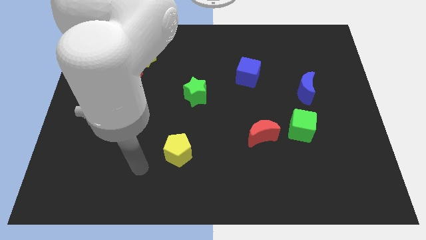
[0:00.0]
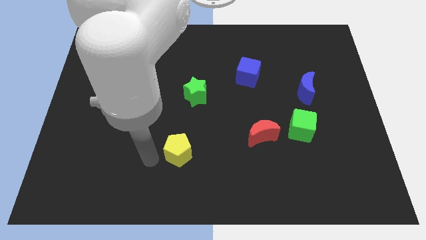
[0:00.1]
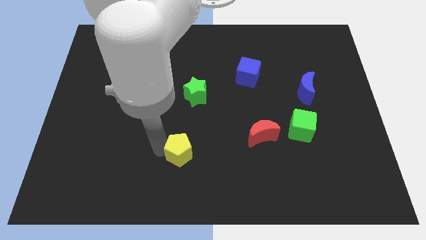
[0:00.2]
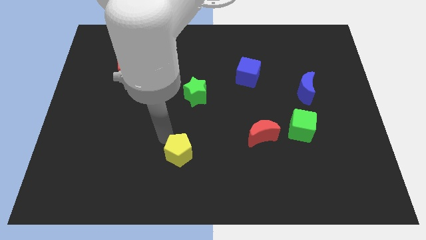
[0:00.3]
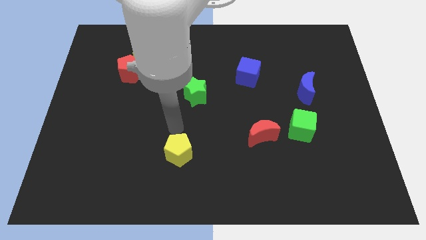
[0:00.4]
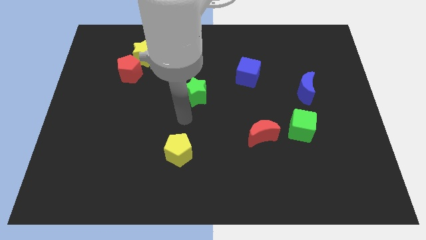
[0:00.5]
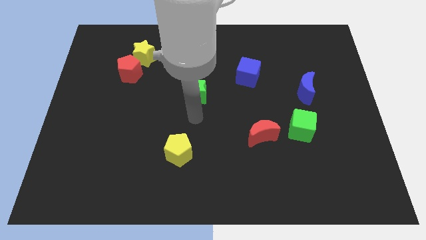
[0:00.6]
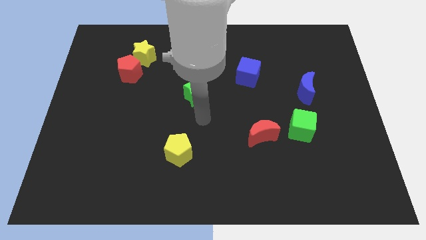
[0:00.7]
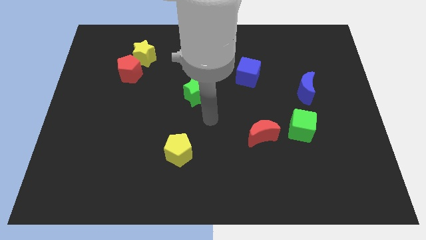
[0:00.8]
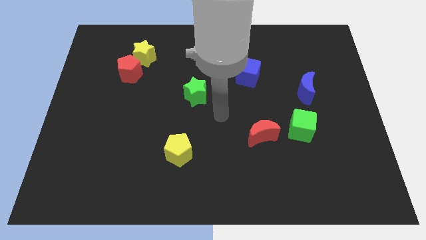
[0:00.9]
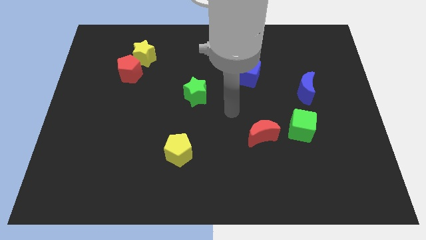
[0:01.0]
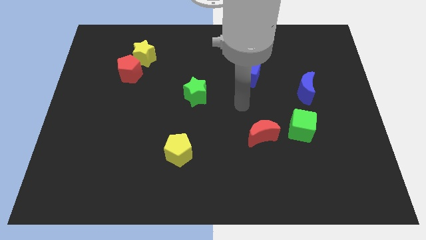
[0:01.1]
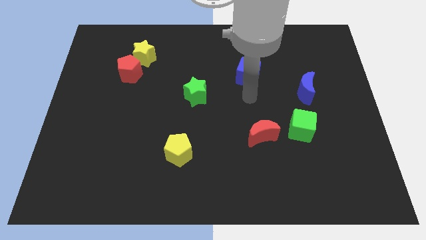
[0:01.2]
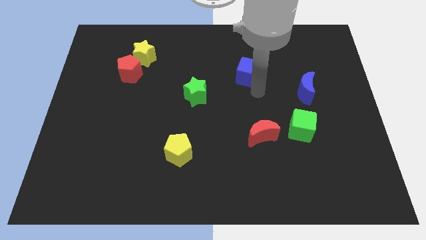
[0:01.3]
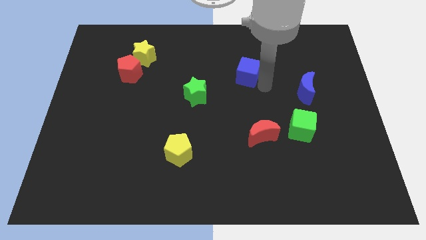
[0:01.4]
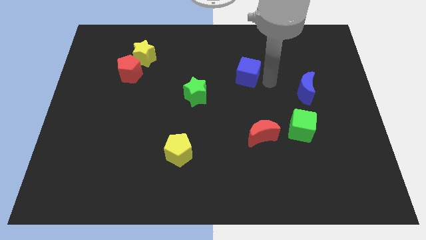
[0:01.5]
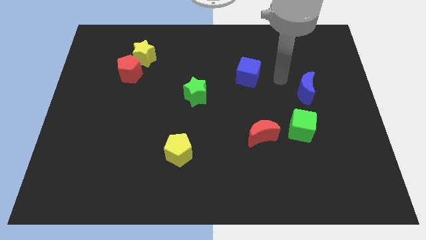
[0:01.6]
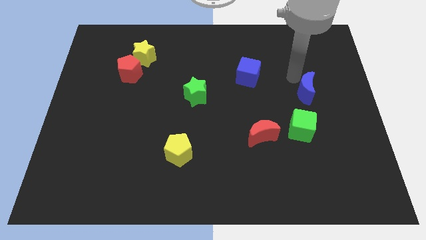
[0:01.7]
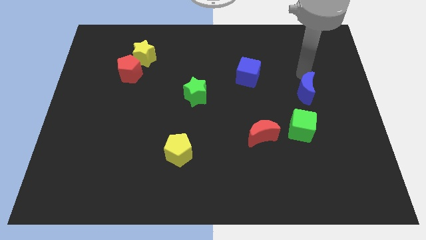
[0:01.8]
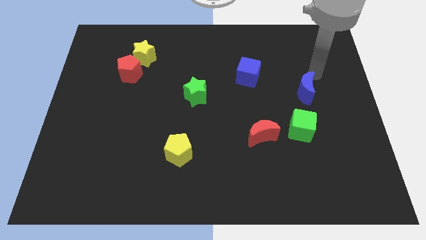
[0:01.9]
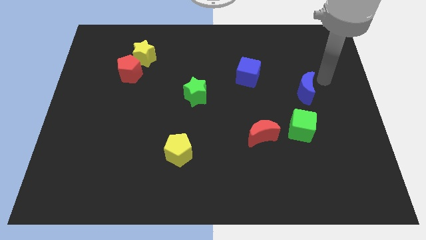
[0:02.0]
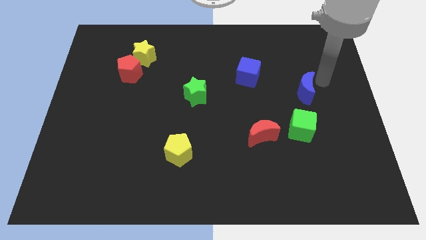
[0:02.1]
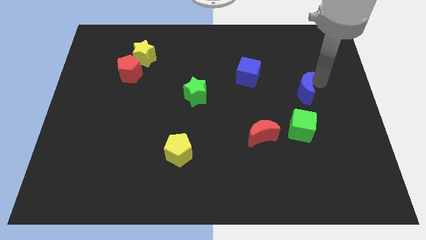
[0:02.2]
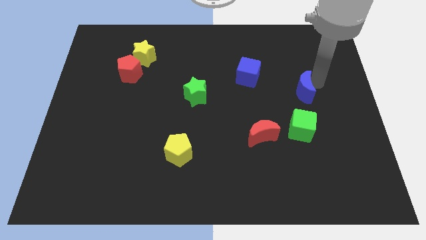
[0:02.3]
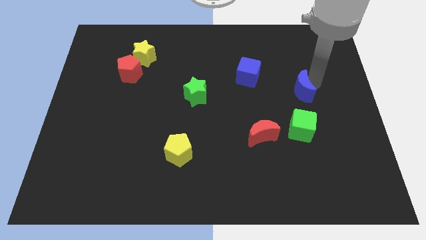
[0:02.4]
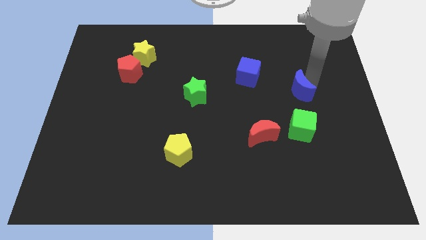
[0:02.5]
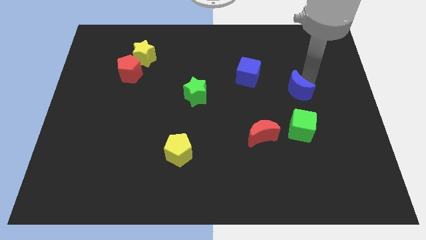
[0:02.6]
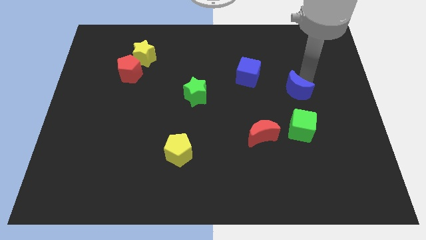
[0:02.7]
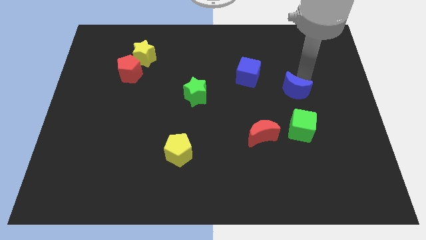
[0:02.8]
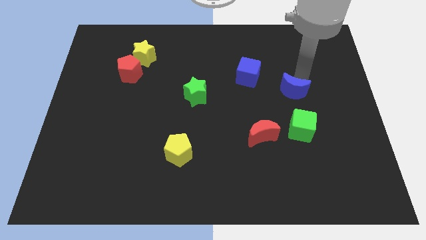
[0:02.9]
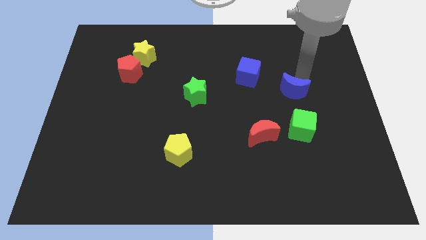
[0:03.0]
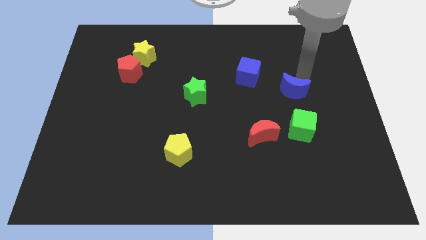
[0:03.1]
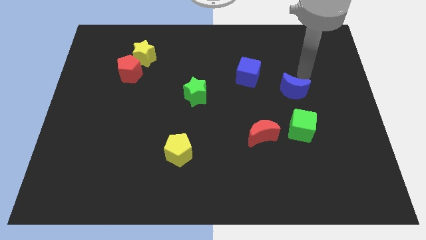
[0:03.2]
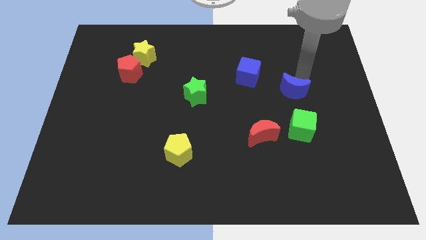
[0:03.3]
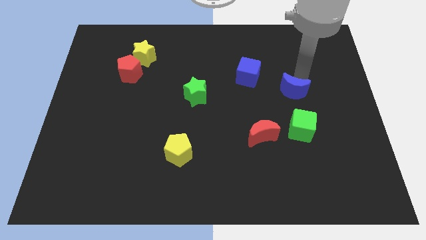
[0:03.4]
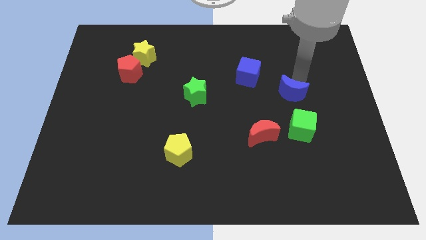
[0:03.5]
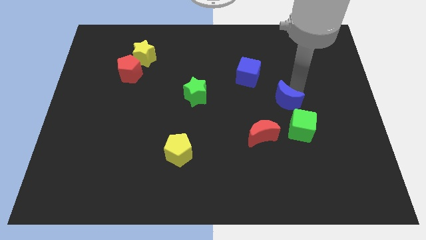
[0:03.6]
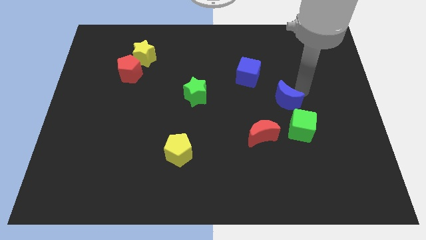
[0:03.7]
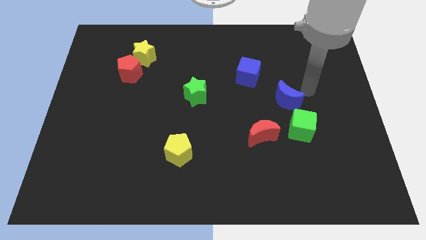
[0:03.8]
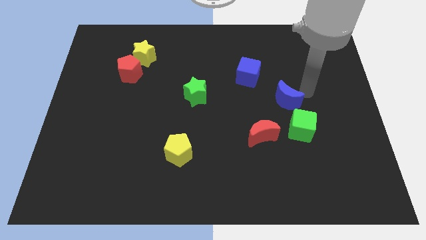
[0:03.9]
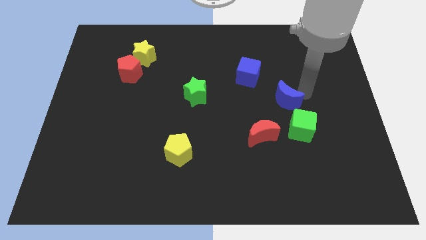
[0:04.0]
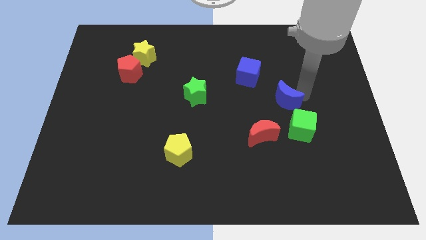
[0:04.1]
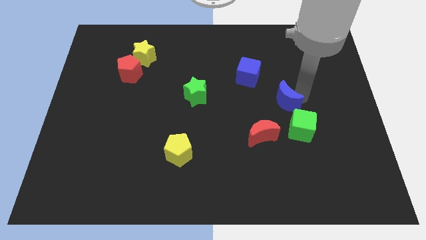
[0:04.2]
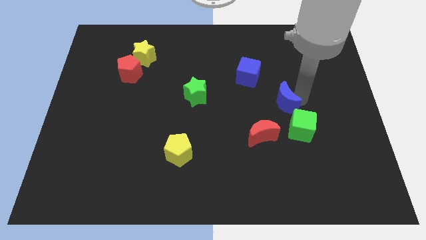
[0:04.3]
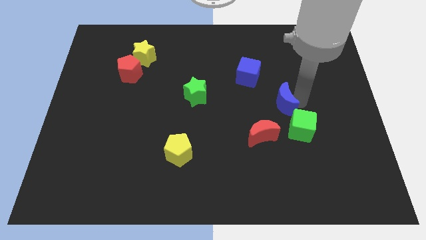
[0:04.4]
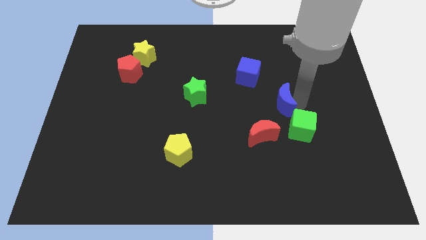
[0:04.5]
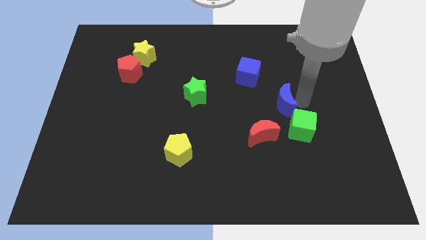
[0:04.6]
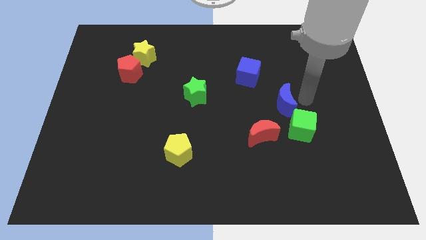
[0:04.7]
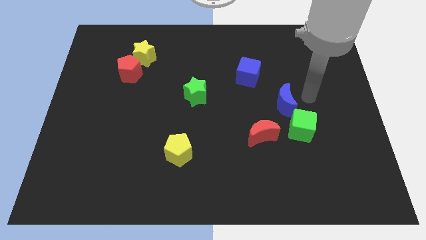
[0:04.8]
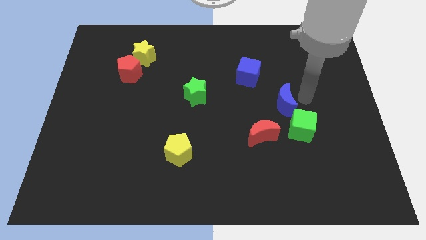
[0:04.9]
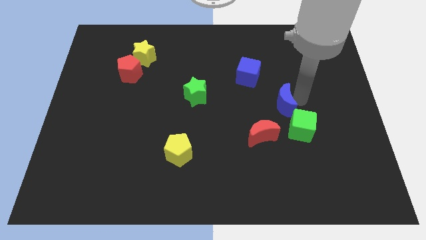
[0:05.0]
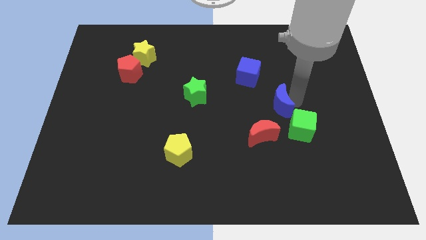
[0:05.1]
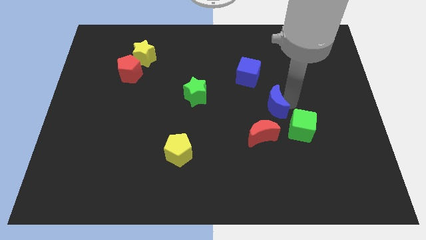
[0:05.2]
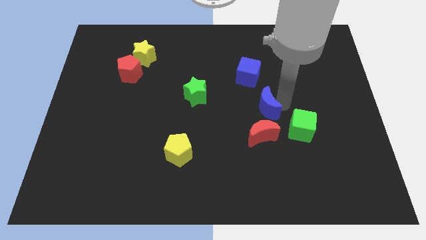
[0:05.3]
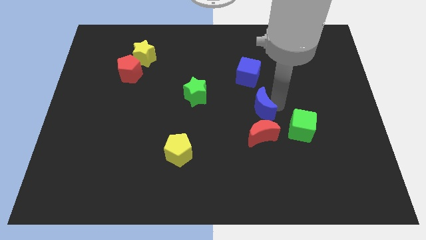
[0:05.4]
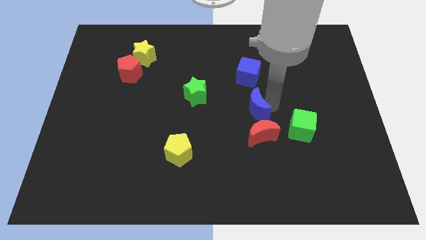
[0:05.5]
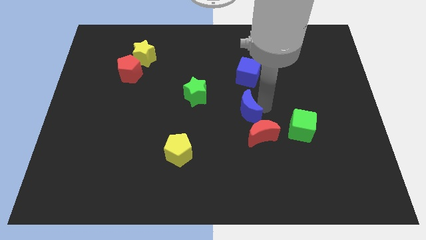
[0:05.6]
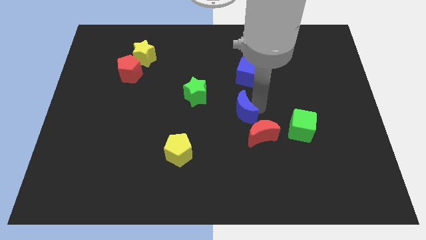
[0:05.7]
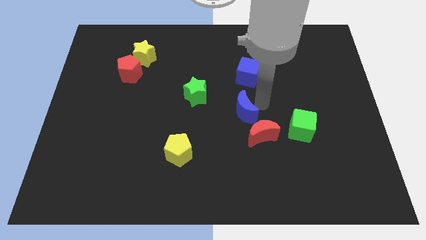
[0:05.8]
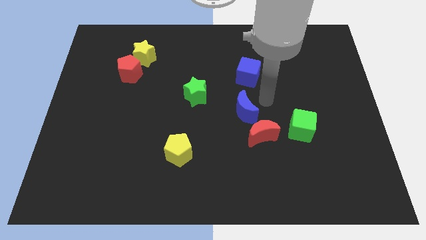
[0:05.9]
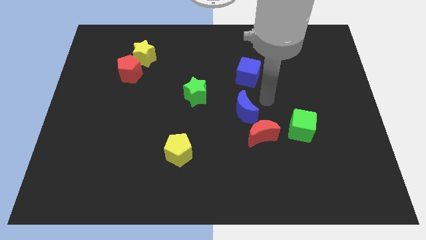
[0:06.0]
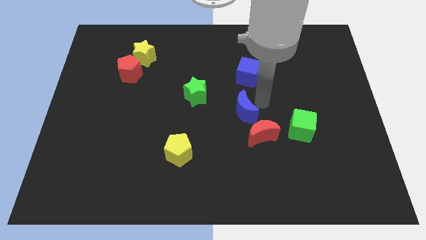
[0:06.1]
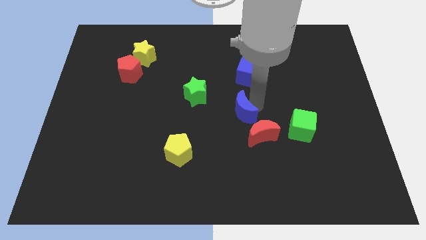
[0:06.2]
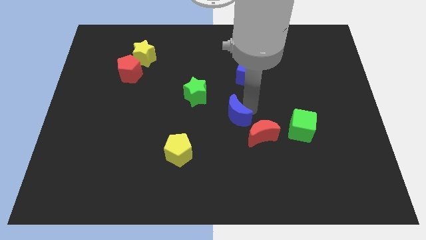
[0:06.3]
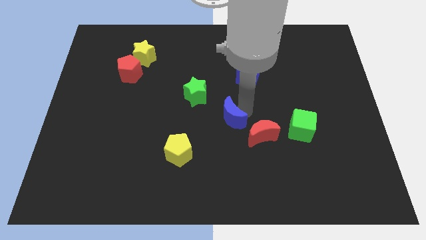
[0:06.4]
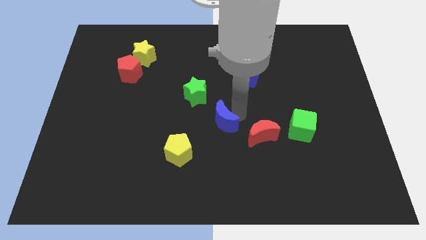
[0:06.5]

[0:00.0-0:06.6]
move the blue moon diagonally up and to the right of the yellow pentagon

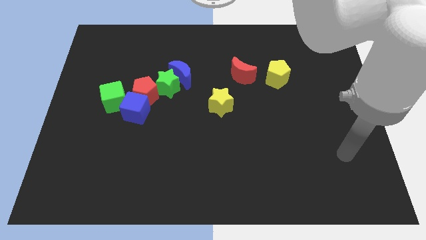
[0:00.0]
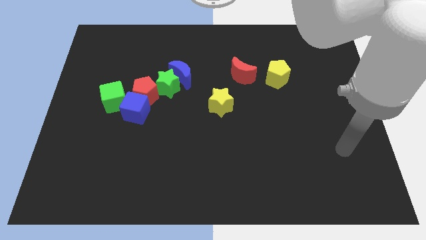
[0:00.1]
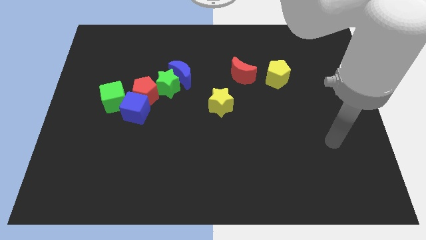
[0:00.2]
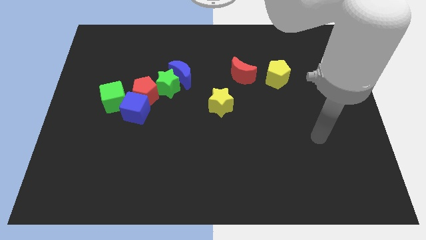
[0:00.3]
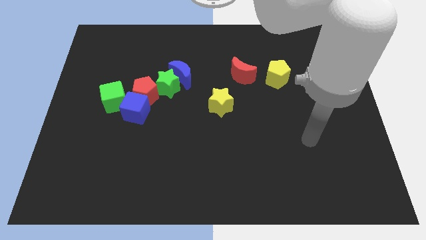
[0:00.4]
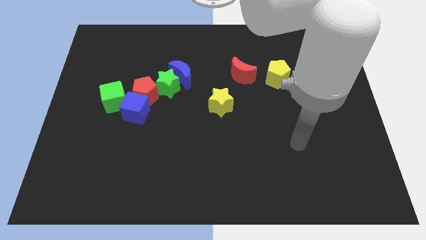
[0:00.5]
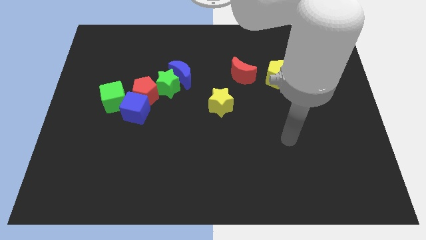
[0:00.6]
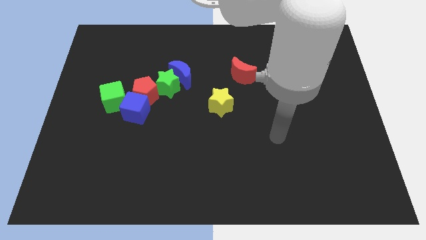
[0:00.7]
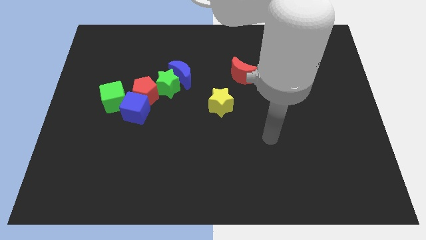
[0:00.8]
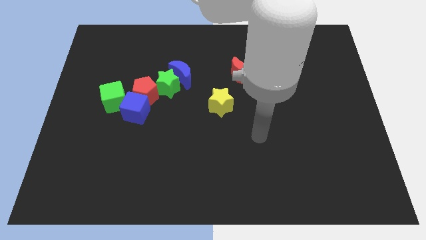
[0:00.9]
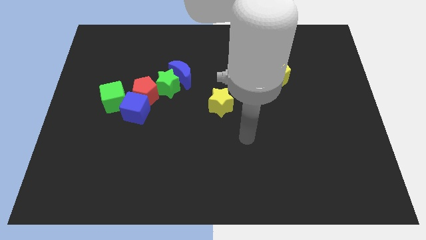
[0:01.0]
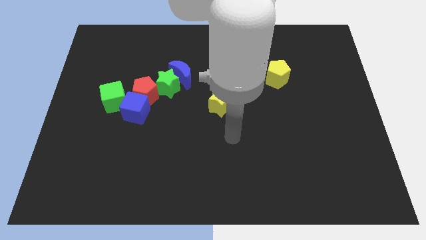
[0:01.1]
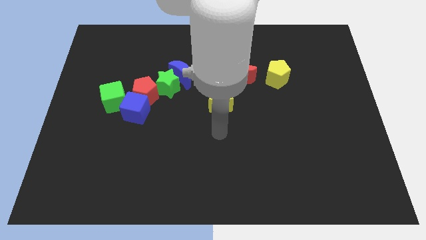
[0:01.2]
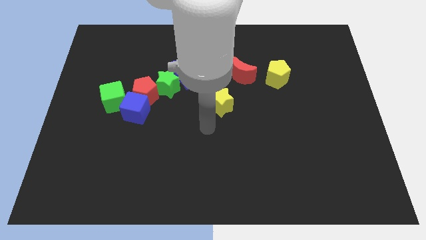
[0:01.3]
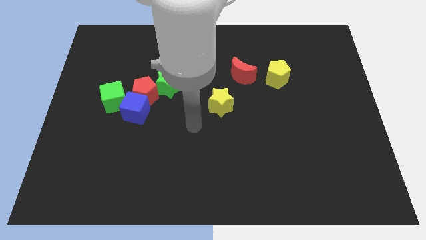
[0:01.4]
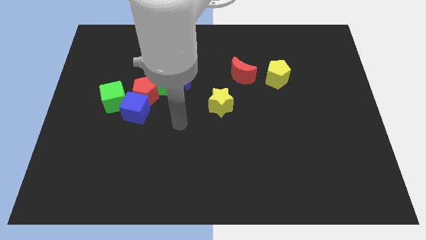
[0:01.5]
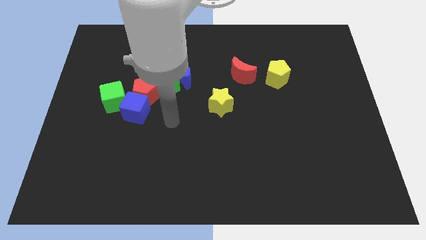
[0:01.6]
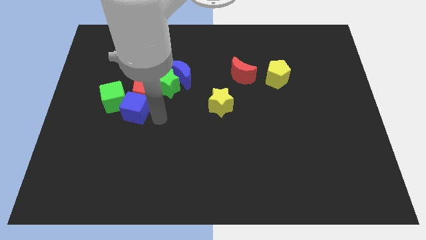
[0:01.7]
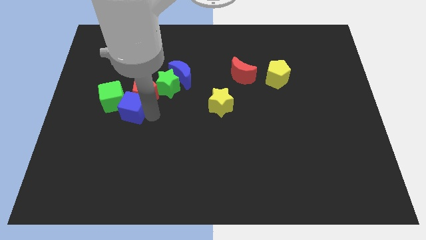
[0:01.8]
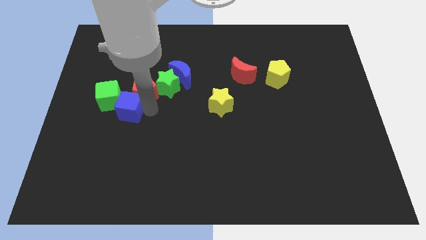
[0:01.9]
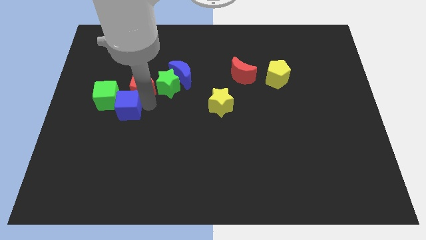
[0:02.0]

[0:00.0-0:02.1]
move the red pentagon to the left of the blue moon
